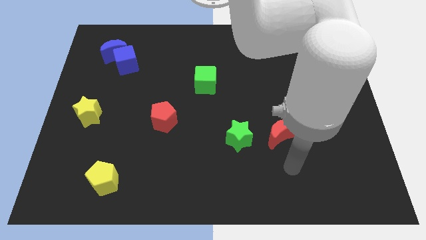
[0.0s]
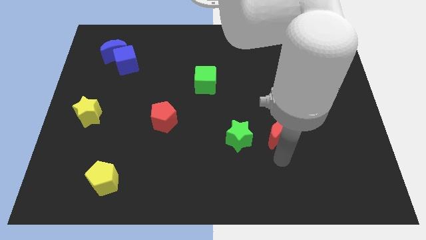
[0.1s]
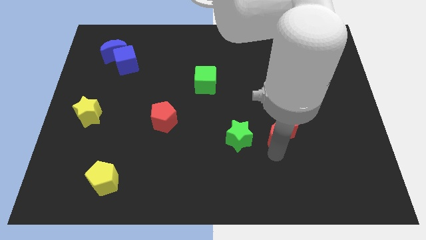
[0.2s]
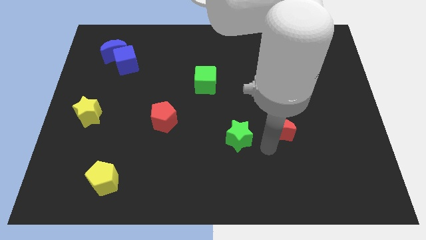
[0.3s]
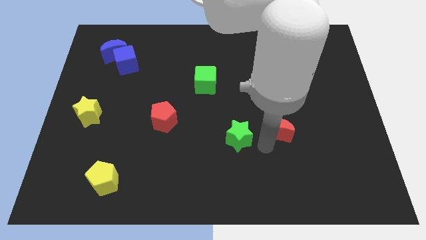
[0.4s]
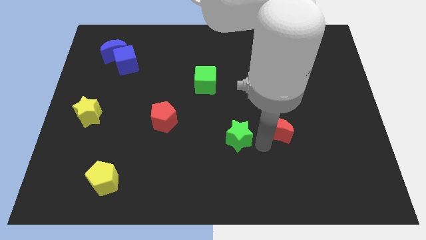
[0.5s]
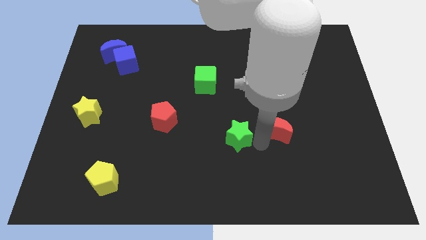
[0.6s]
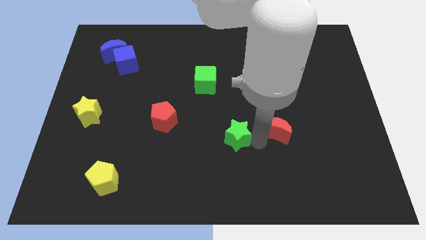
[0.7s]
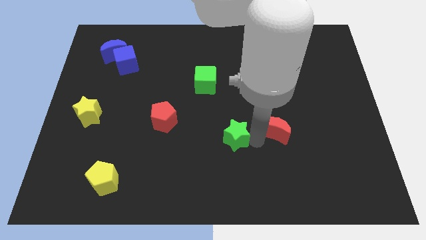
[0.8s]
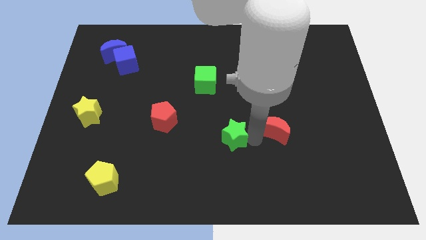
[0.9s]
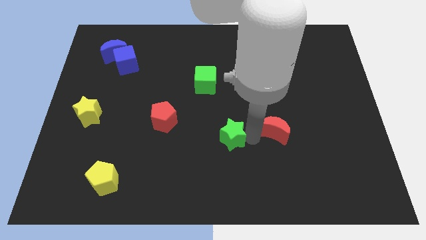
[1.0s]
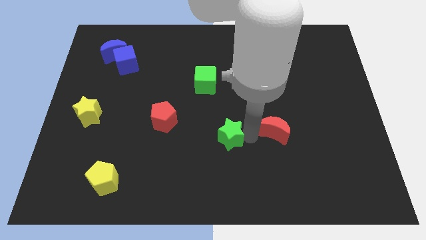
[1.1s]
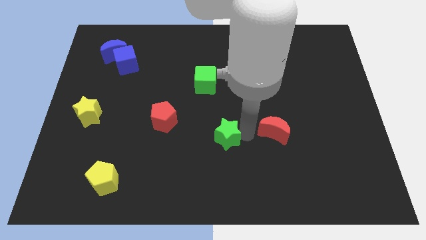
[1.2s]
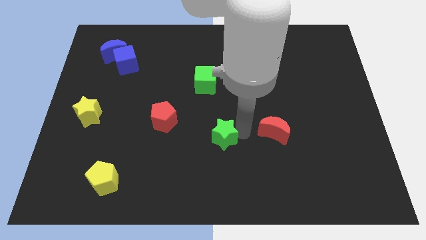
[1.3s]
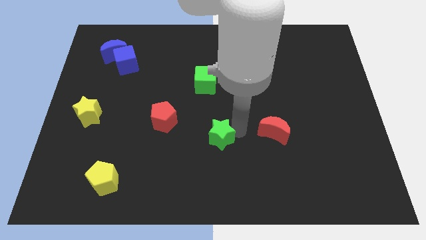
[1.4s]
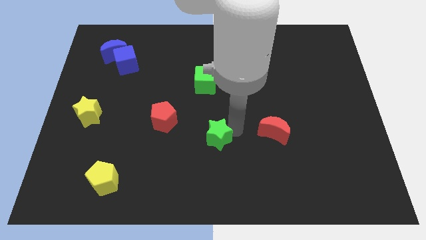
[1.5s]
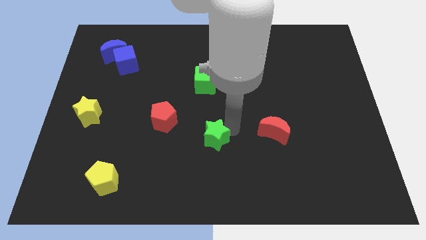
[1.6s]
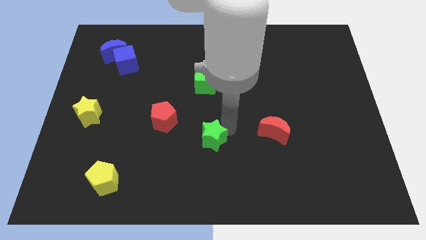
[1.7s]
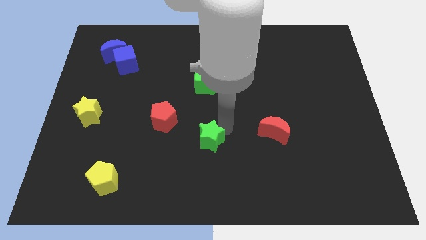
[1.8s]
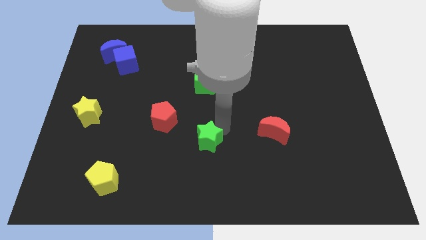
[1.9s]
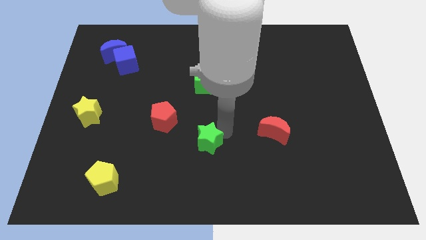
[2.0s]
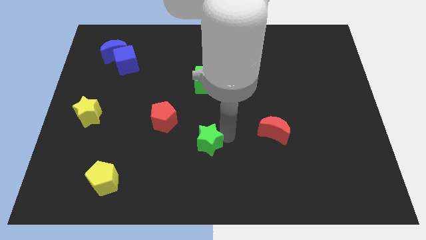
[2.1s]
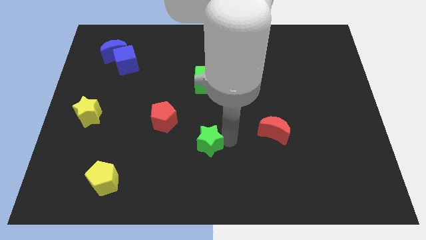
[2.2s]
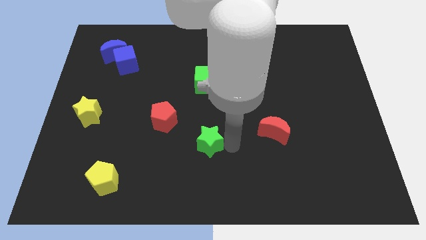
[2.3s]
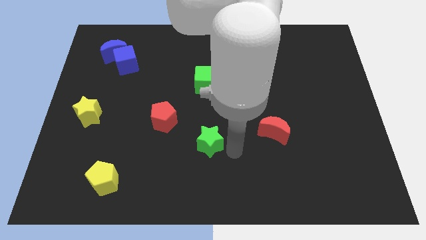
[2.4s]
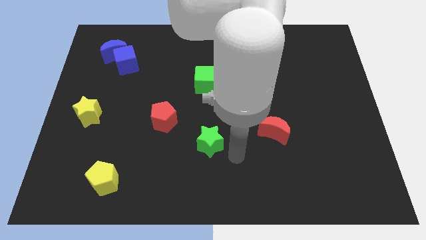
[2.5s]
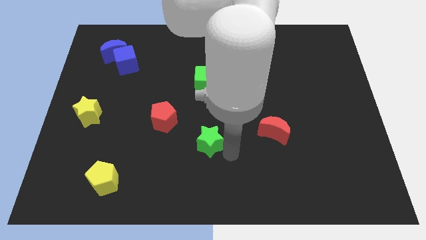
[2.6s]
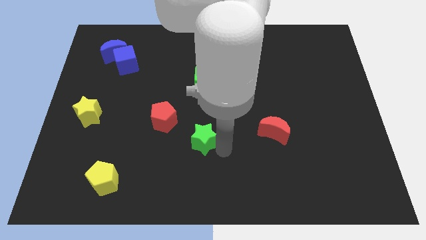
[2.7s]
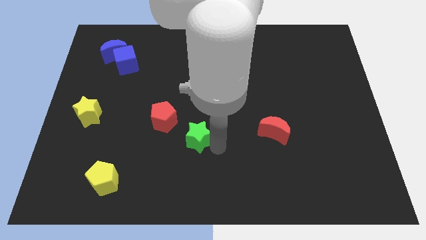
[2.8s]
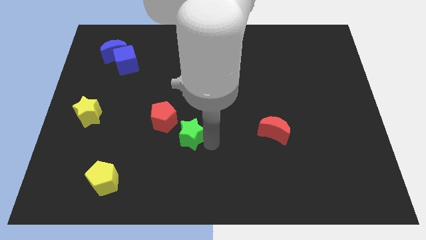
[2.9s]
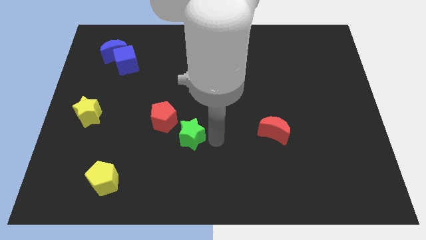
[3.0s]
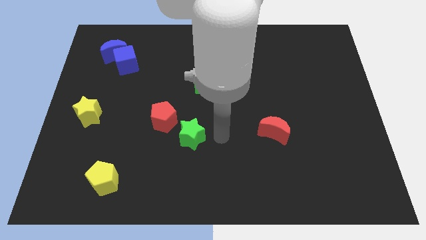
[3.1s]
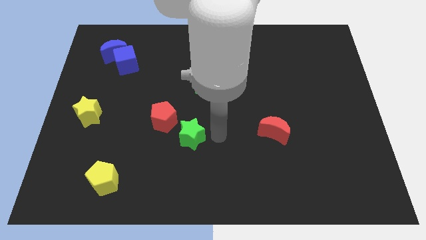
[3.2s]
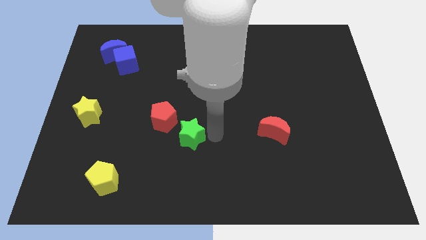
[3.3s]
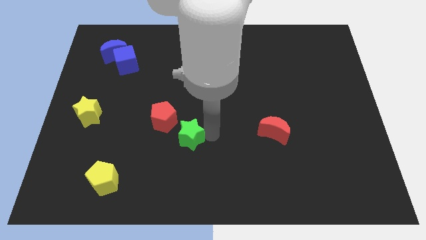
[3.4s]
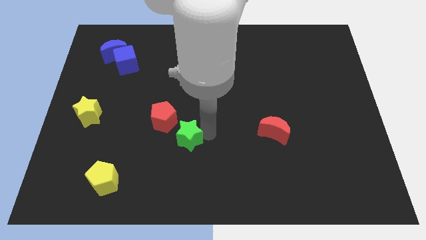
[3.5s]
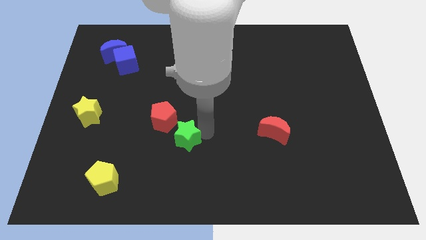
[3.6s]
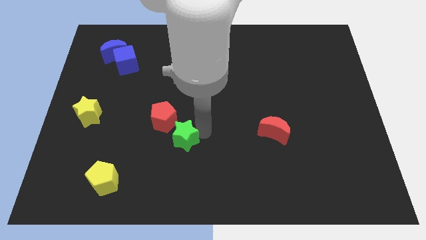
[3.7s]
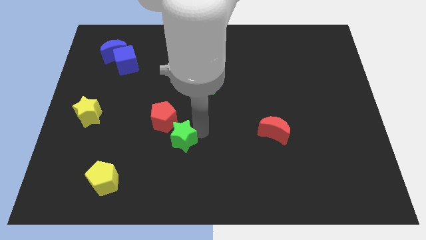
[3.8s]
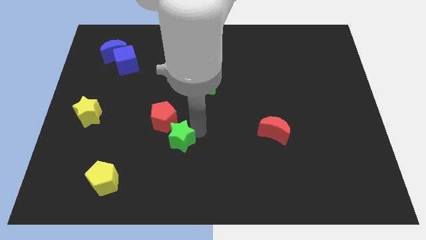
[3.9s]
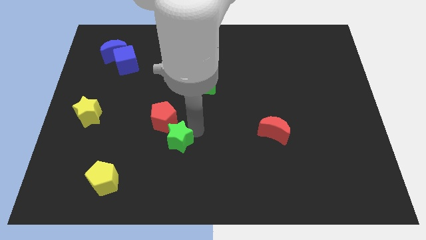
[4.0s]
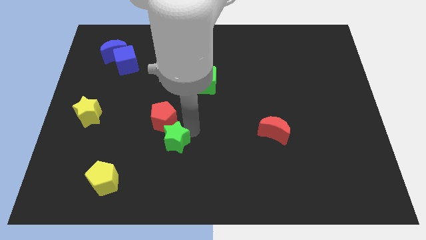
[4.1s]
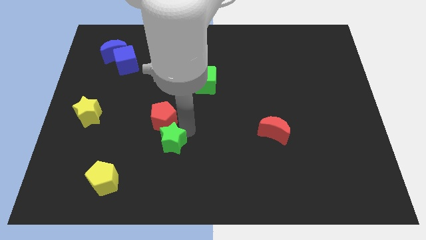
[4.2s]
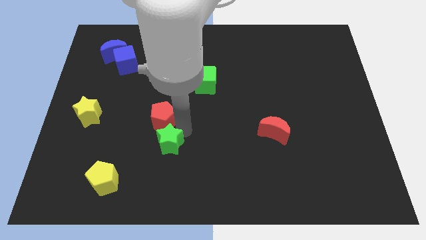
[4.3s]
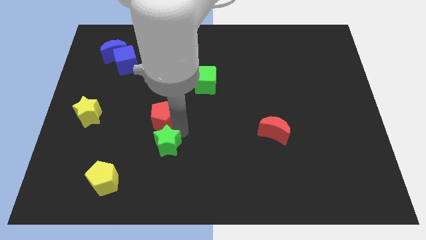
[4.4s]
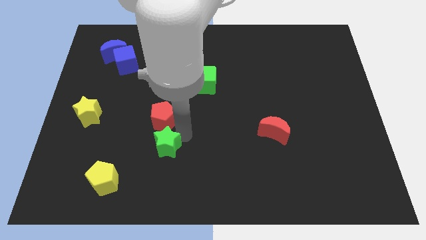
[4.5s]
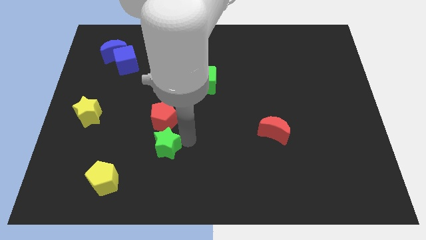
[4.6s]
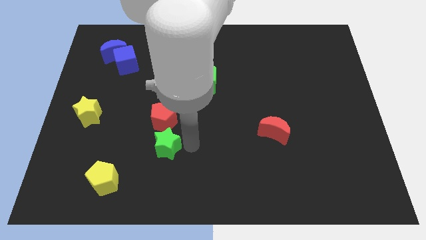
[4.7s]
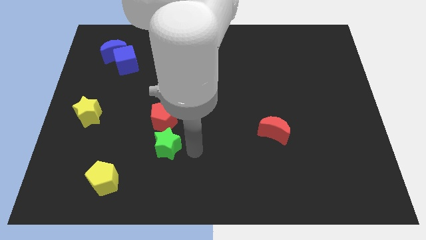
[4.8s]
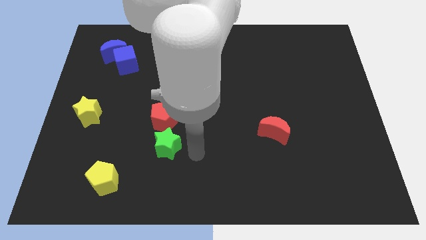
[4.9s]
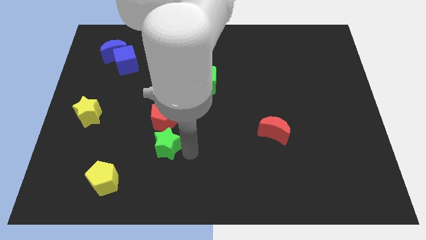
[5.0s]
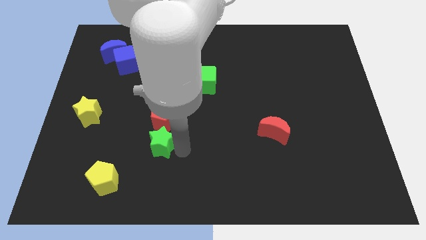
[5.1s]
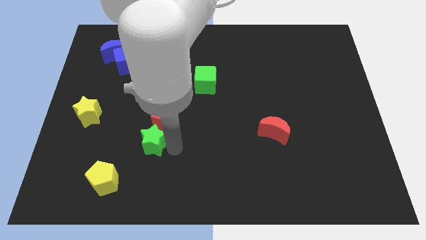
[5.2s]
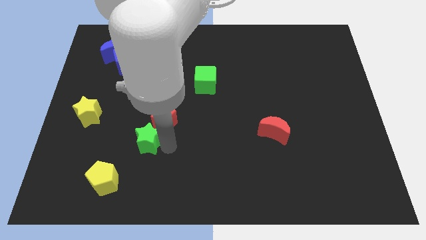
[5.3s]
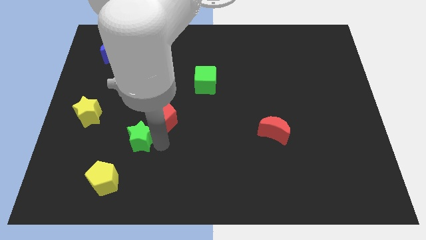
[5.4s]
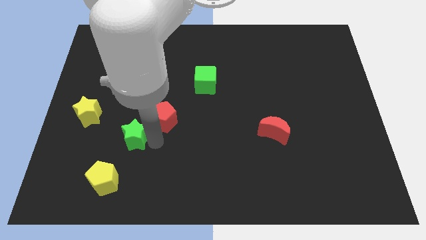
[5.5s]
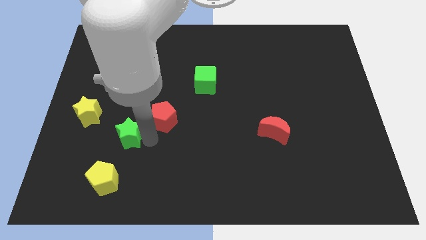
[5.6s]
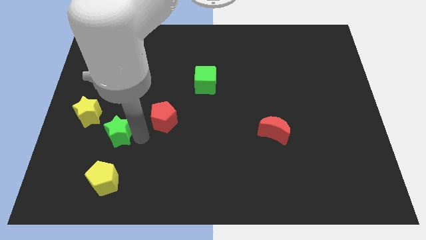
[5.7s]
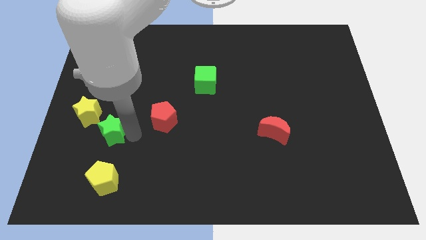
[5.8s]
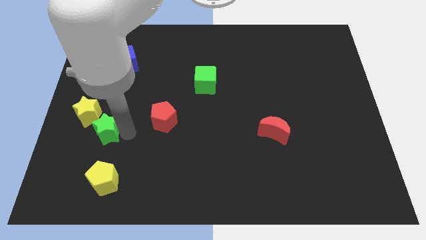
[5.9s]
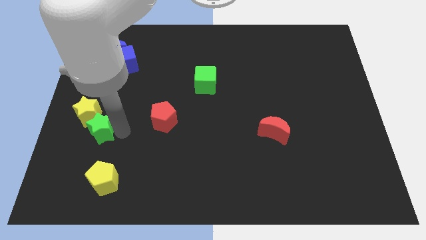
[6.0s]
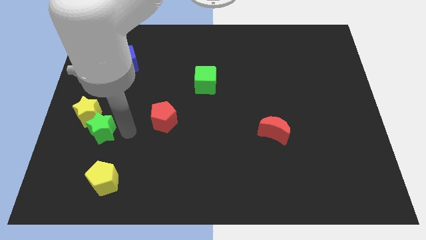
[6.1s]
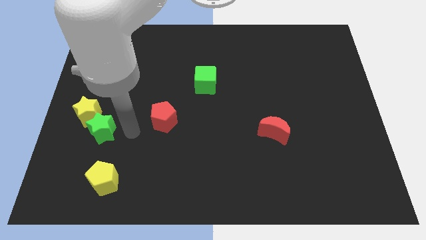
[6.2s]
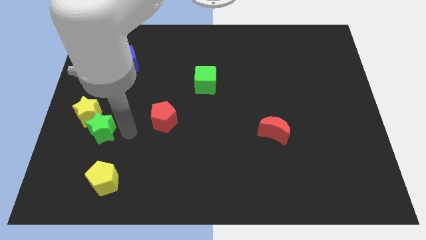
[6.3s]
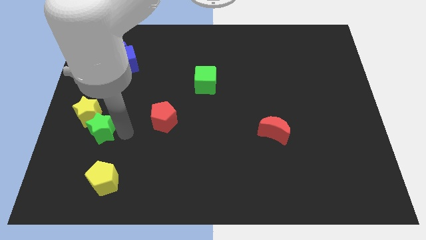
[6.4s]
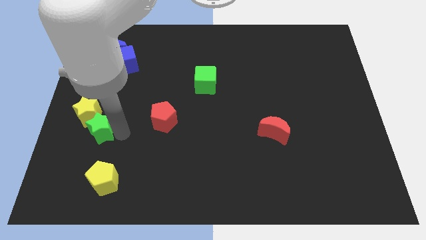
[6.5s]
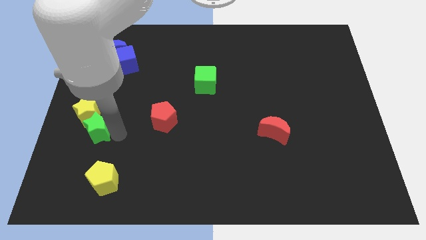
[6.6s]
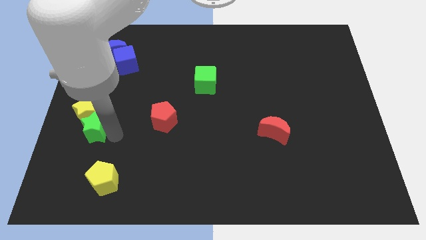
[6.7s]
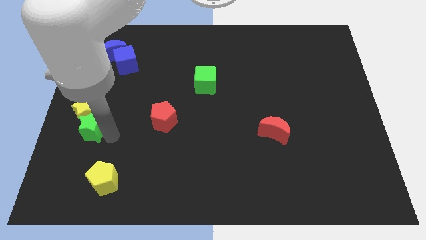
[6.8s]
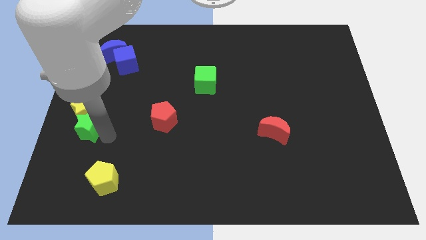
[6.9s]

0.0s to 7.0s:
put the green star to the left side

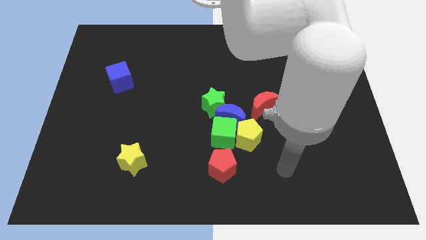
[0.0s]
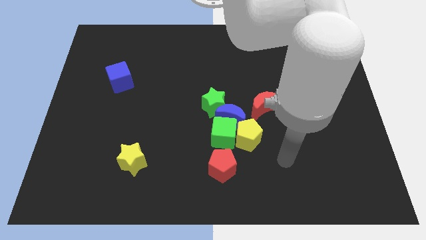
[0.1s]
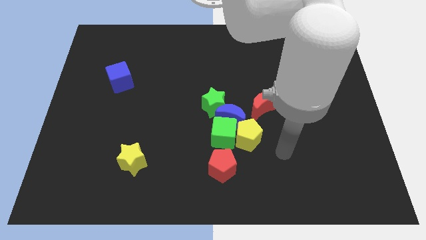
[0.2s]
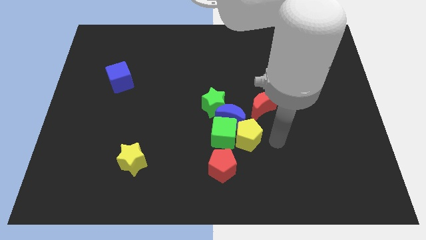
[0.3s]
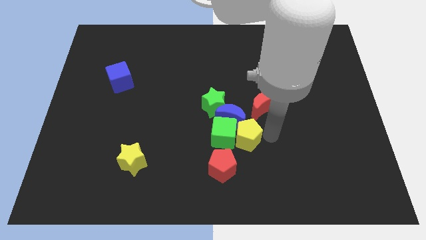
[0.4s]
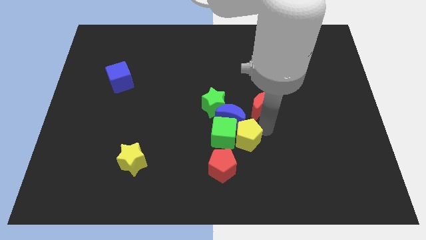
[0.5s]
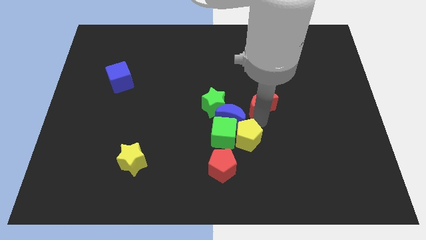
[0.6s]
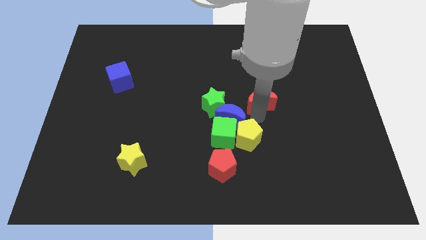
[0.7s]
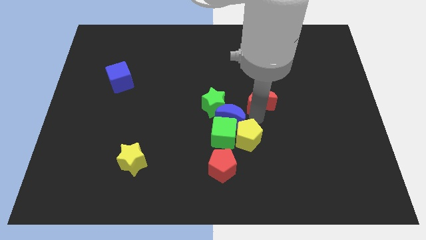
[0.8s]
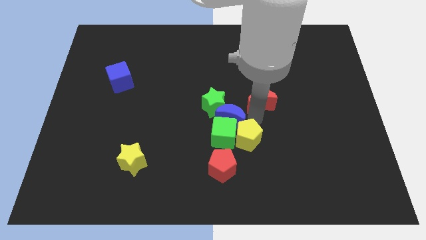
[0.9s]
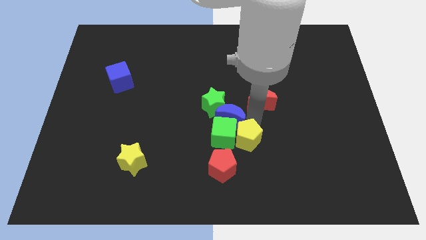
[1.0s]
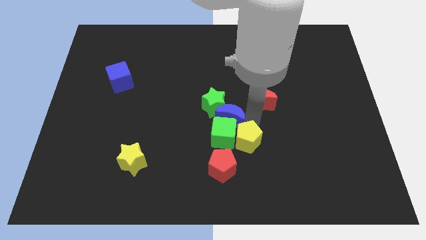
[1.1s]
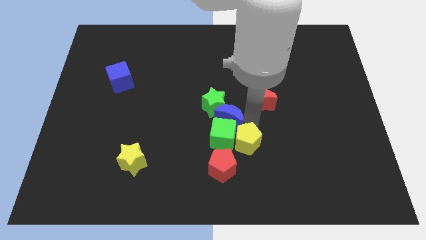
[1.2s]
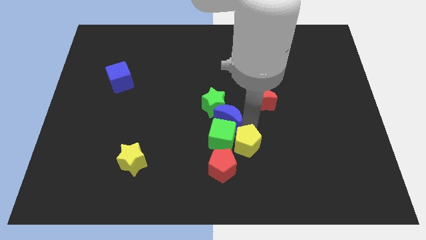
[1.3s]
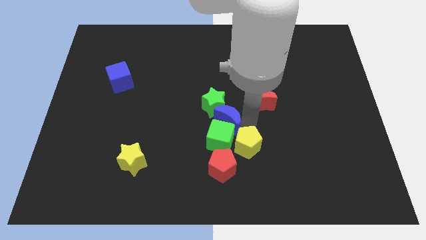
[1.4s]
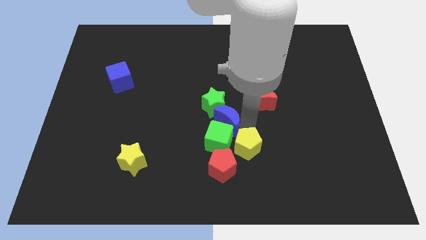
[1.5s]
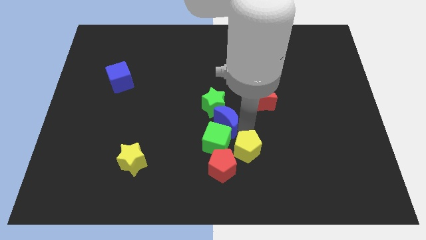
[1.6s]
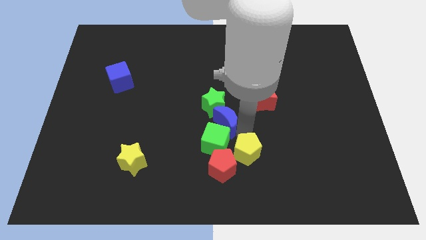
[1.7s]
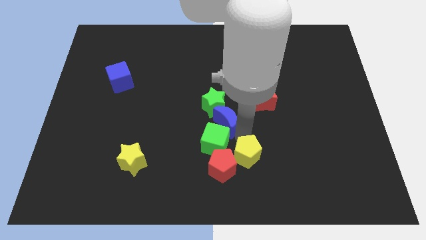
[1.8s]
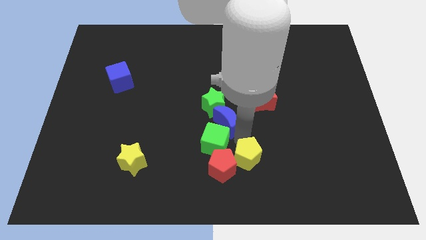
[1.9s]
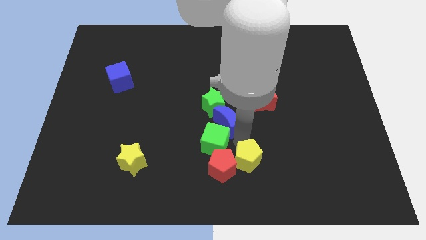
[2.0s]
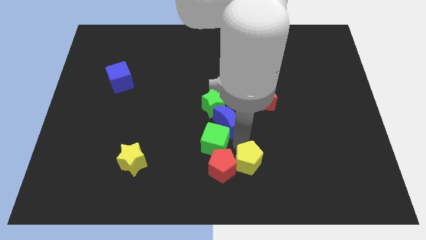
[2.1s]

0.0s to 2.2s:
move the yellow pentagon to the bottom side
